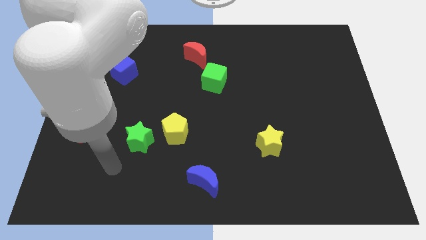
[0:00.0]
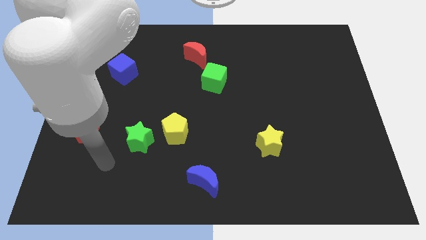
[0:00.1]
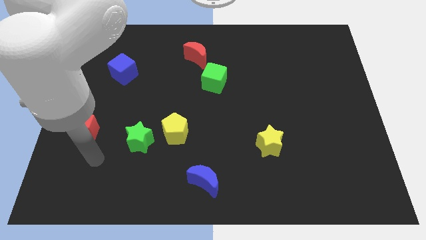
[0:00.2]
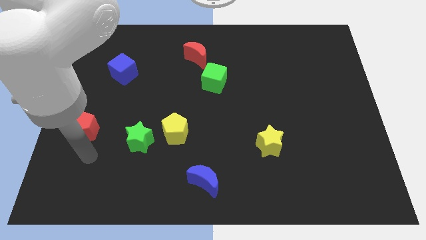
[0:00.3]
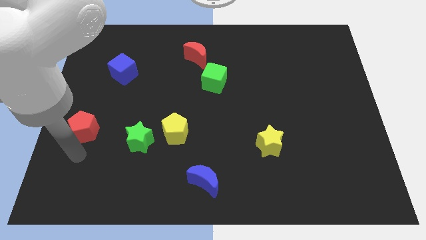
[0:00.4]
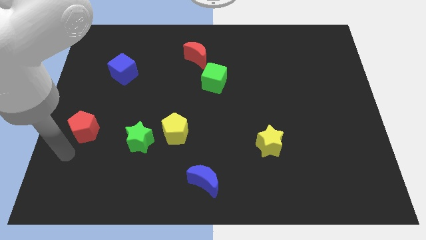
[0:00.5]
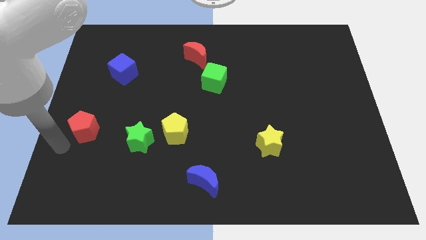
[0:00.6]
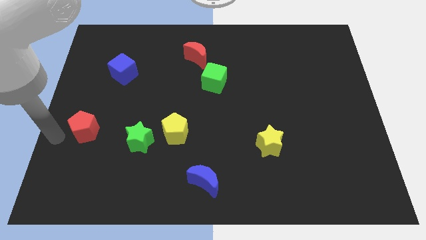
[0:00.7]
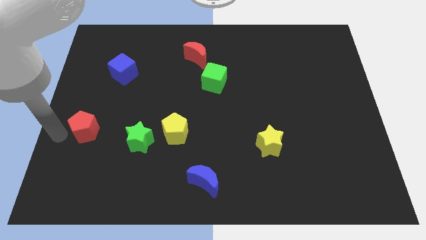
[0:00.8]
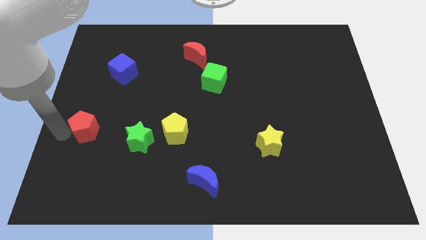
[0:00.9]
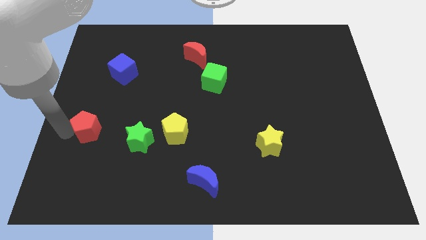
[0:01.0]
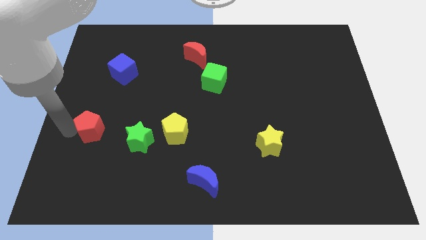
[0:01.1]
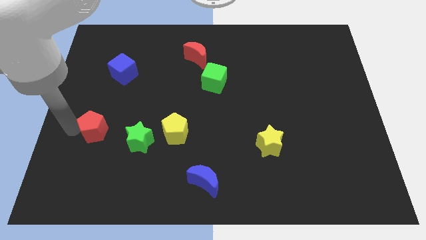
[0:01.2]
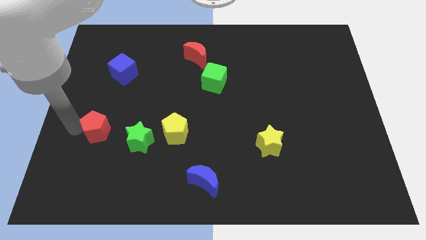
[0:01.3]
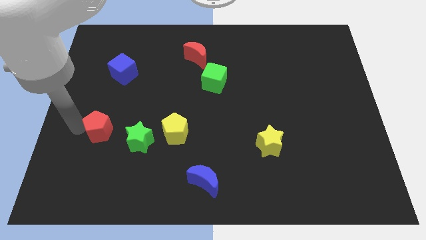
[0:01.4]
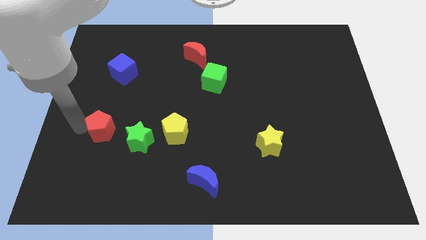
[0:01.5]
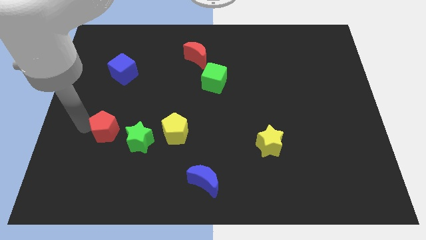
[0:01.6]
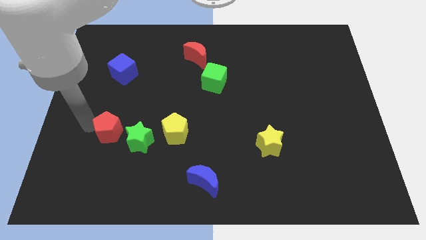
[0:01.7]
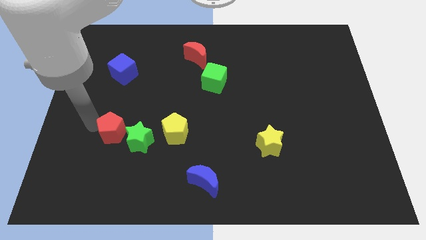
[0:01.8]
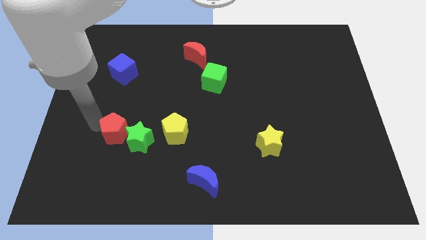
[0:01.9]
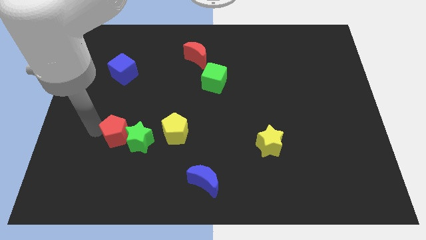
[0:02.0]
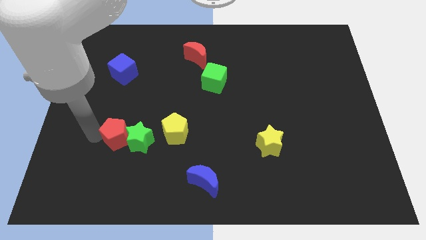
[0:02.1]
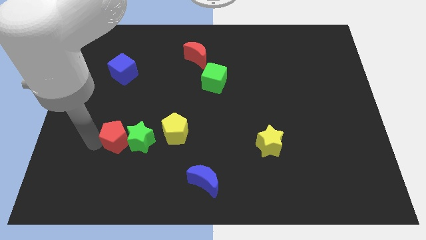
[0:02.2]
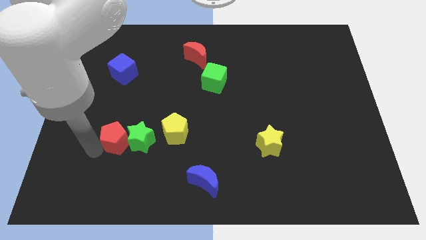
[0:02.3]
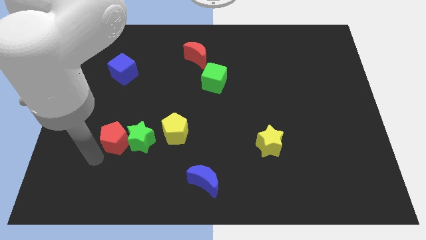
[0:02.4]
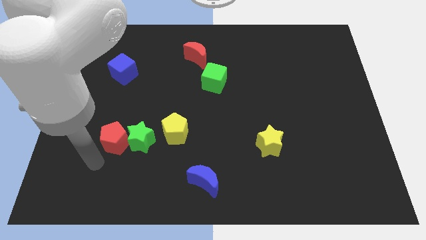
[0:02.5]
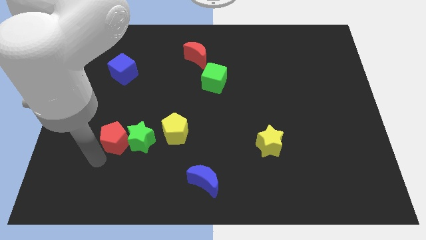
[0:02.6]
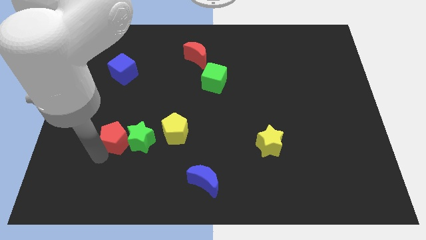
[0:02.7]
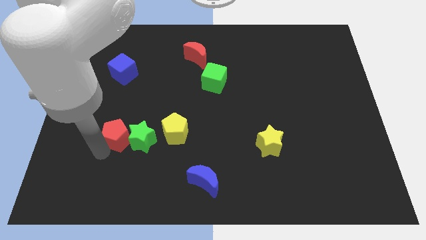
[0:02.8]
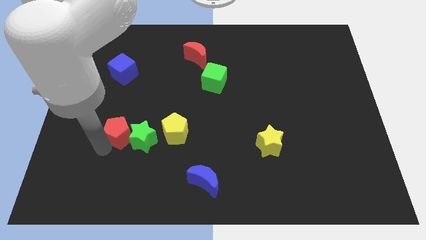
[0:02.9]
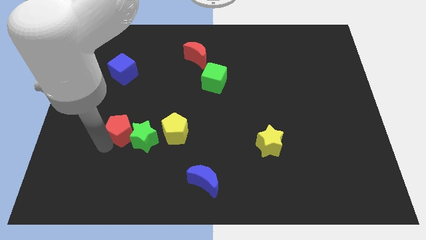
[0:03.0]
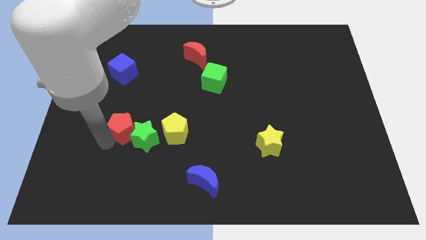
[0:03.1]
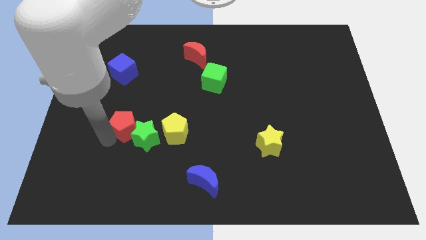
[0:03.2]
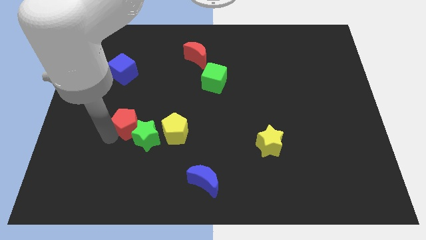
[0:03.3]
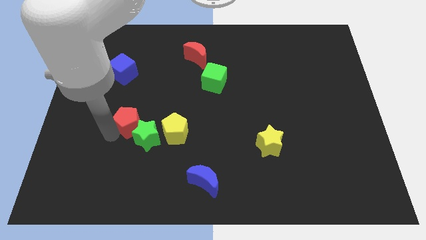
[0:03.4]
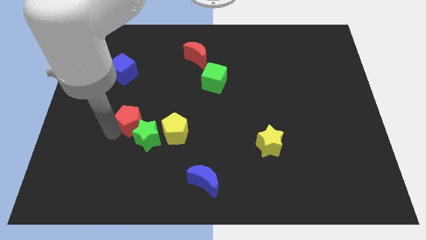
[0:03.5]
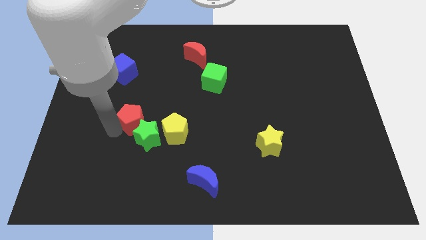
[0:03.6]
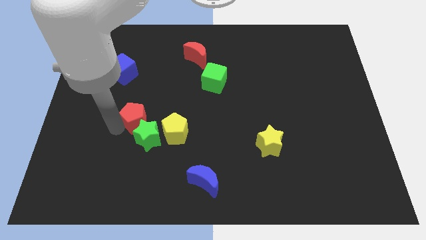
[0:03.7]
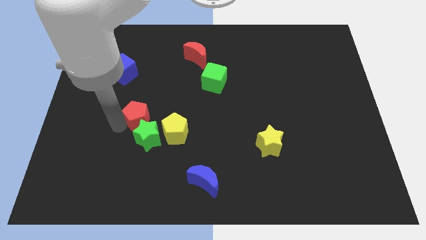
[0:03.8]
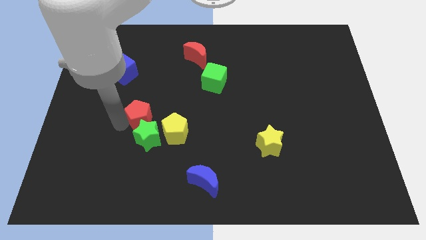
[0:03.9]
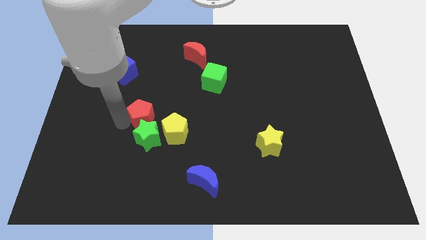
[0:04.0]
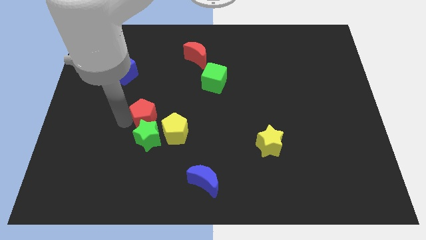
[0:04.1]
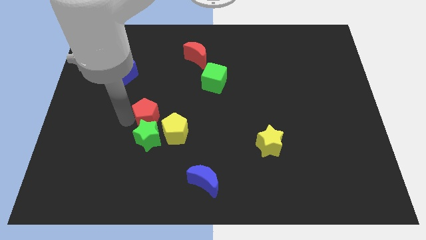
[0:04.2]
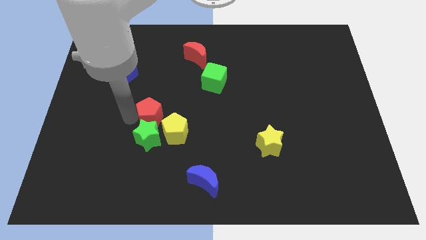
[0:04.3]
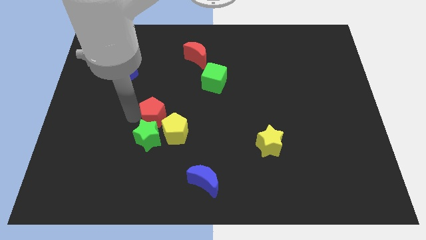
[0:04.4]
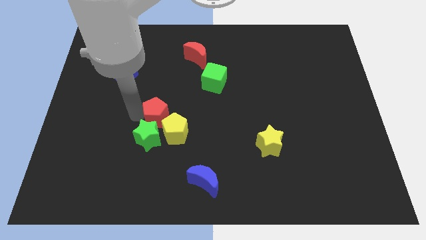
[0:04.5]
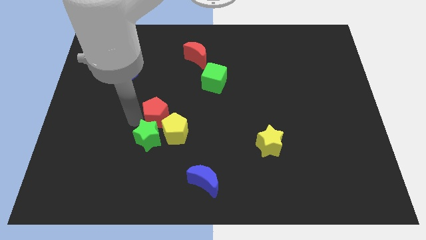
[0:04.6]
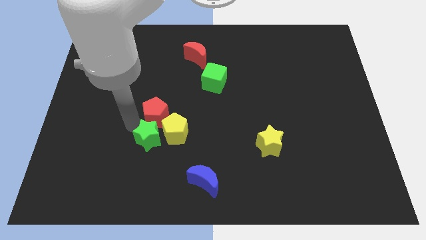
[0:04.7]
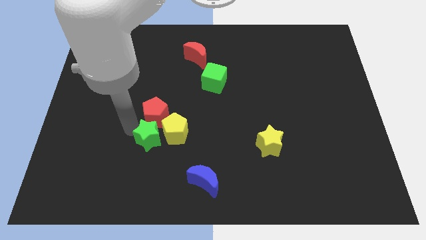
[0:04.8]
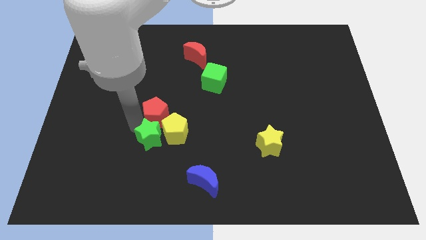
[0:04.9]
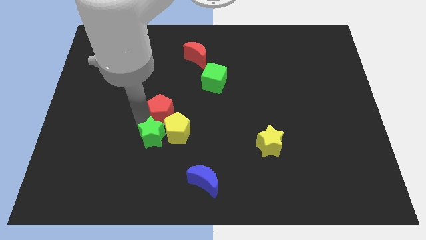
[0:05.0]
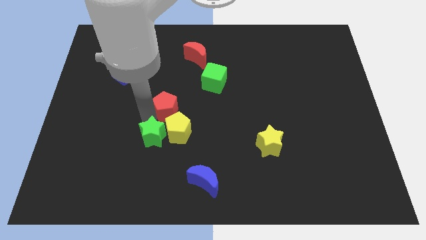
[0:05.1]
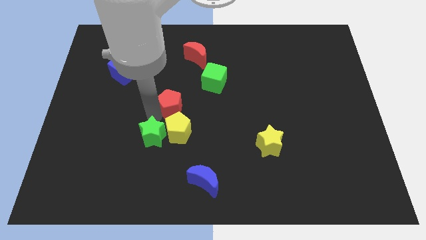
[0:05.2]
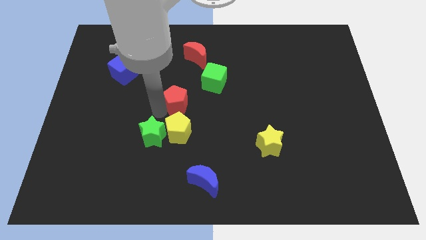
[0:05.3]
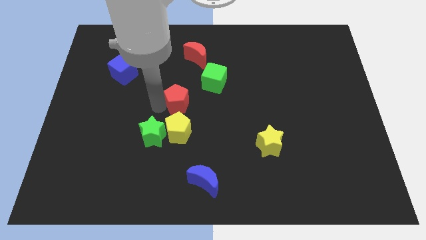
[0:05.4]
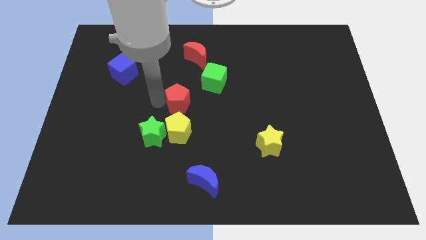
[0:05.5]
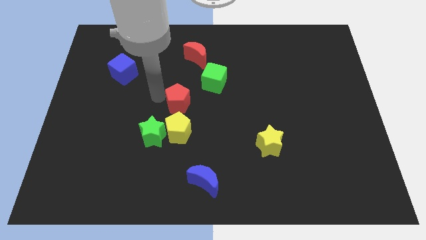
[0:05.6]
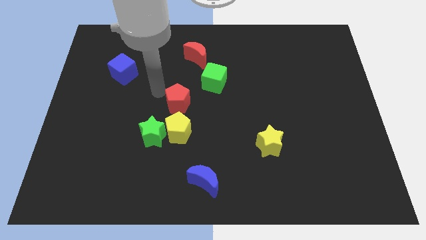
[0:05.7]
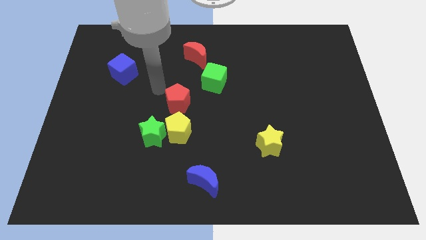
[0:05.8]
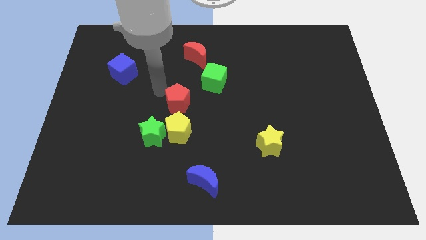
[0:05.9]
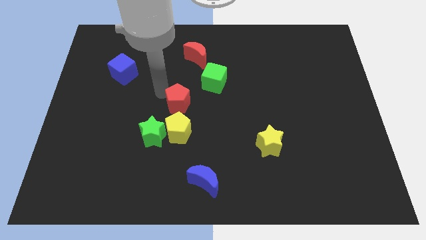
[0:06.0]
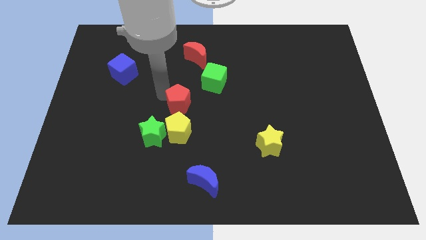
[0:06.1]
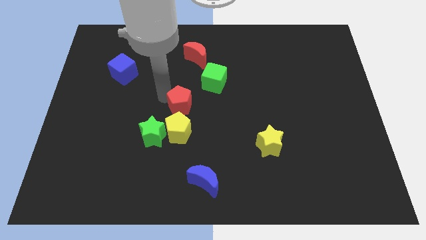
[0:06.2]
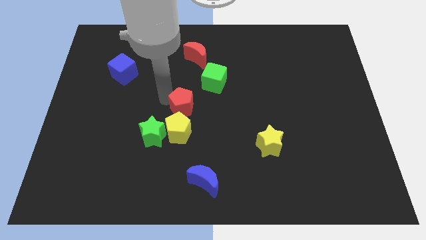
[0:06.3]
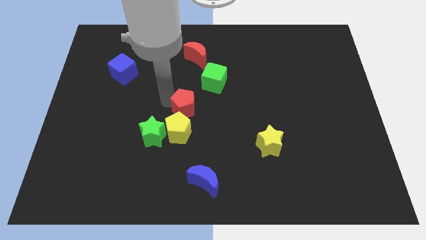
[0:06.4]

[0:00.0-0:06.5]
push the red pentagon to the right

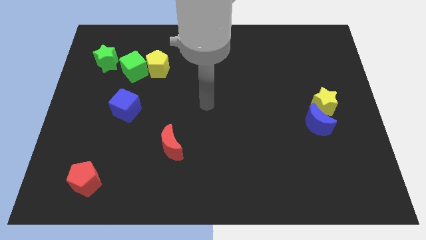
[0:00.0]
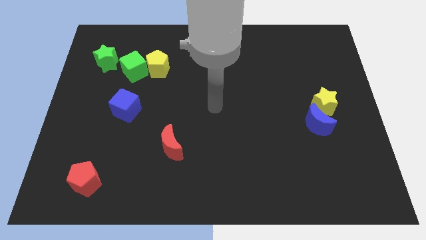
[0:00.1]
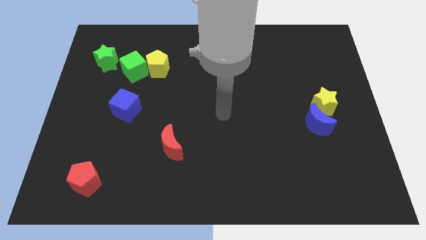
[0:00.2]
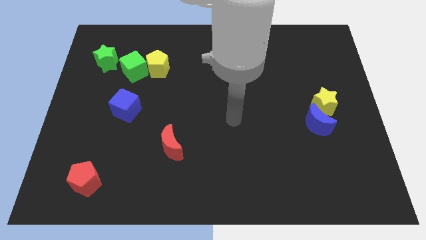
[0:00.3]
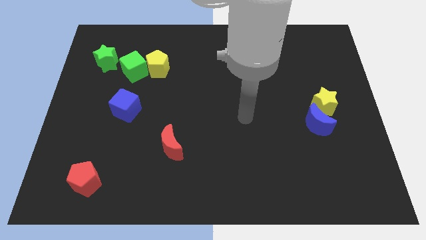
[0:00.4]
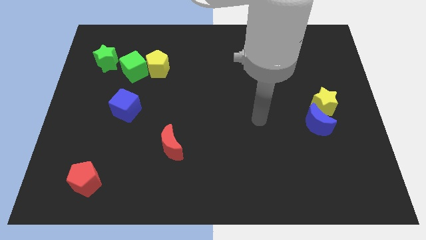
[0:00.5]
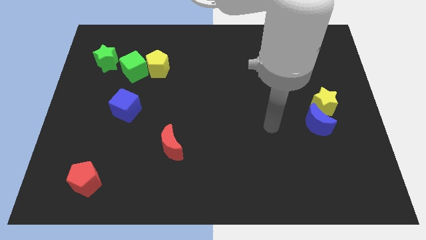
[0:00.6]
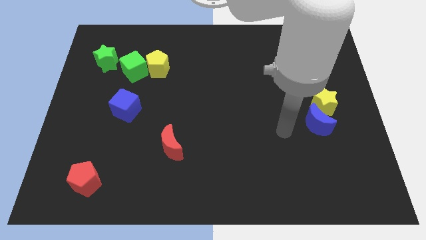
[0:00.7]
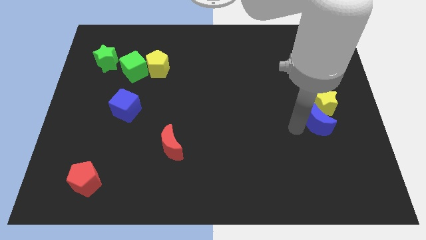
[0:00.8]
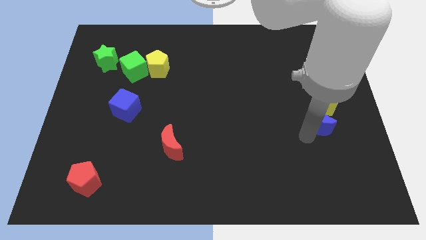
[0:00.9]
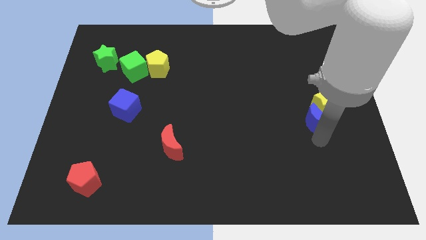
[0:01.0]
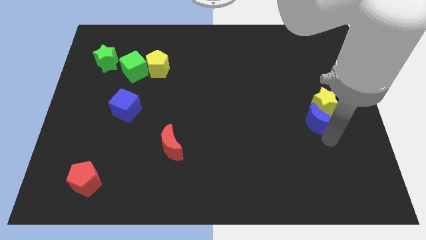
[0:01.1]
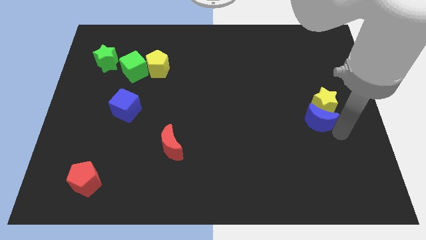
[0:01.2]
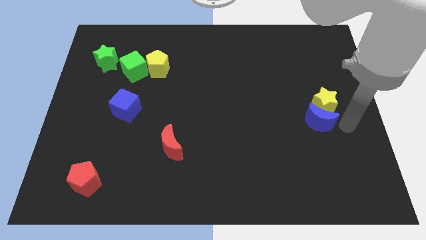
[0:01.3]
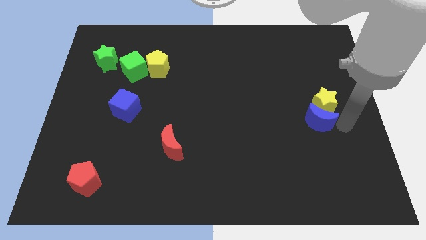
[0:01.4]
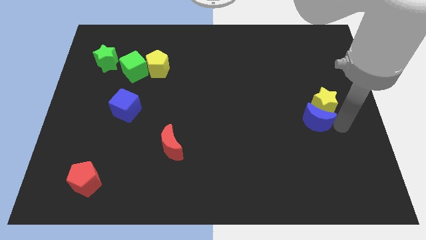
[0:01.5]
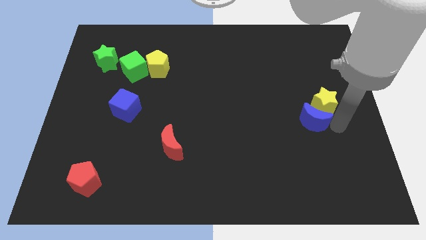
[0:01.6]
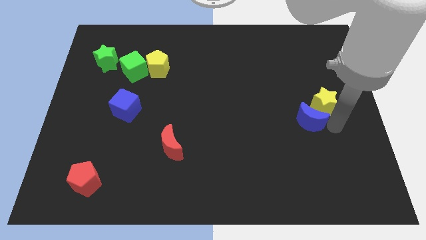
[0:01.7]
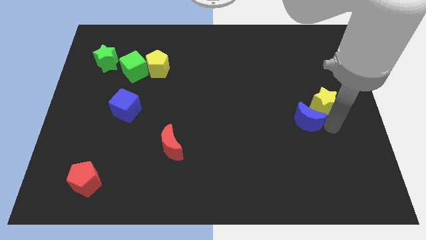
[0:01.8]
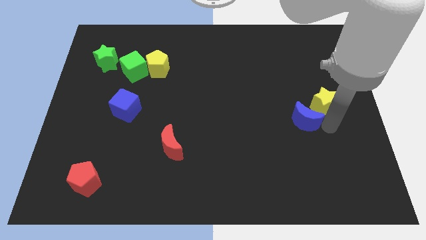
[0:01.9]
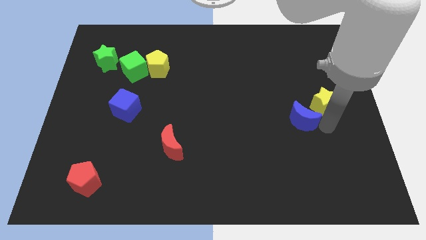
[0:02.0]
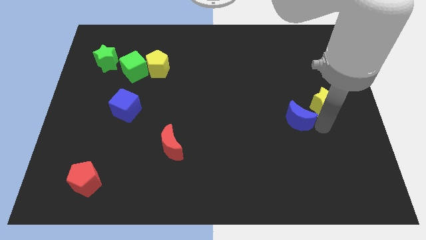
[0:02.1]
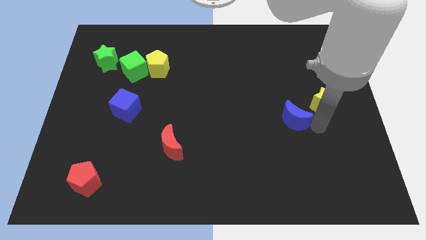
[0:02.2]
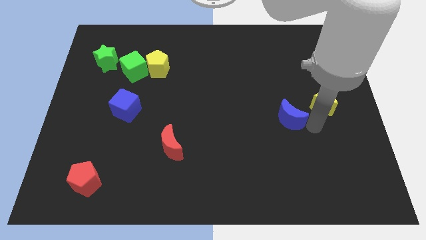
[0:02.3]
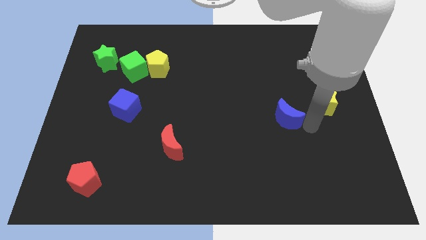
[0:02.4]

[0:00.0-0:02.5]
slightly slide the blue moon to the left
